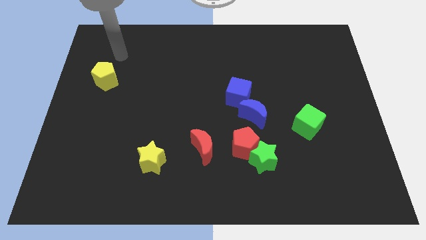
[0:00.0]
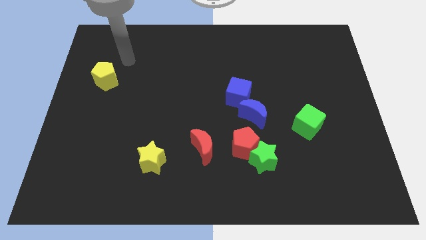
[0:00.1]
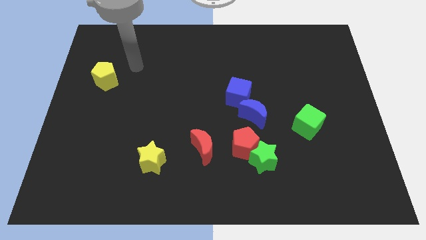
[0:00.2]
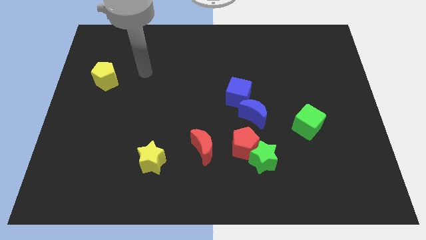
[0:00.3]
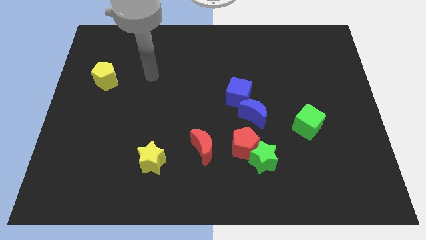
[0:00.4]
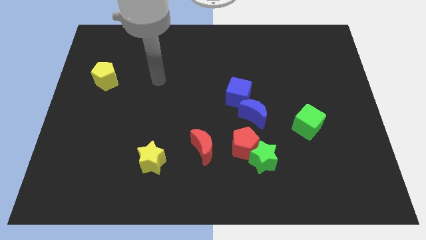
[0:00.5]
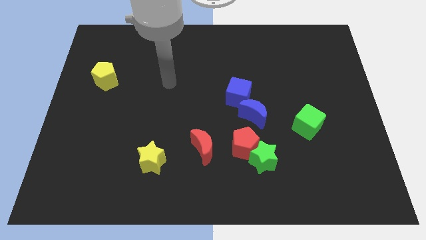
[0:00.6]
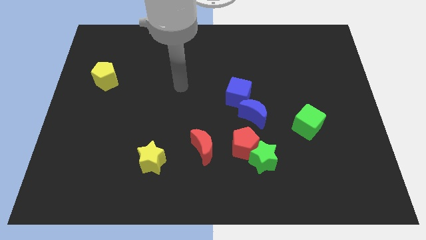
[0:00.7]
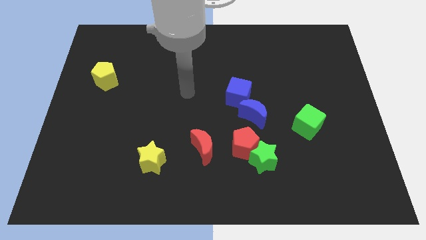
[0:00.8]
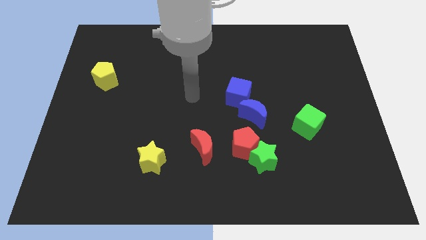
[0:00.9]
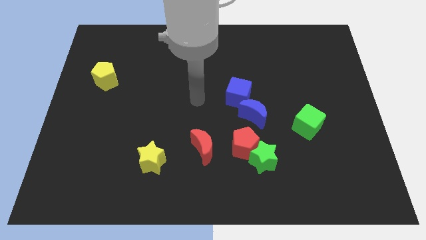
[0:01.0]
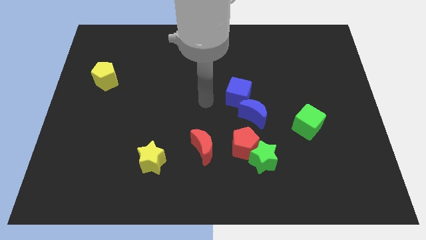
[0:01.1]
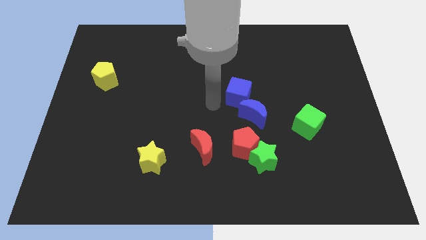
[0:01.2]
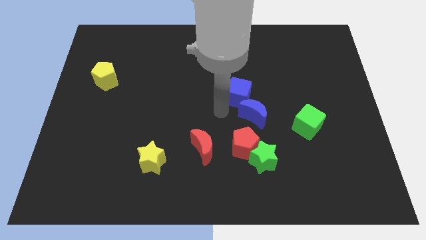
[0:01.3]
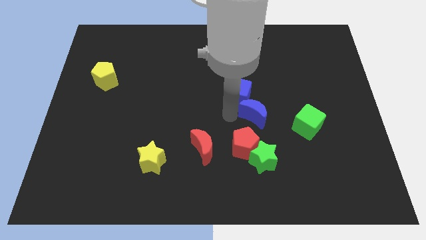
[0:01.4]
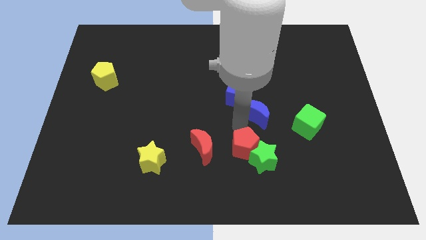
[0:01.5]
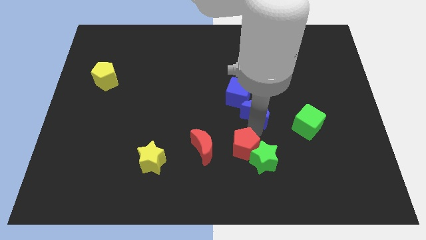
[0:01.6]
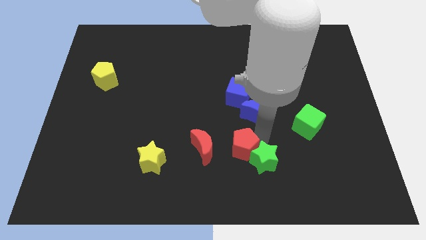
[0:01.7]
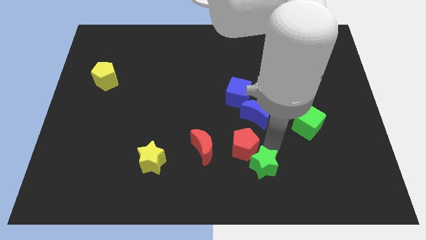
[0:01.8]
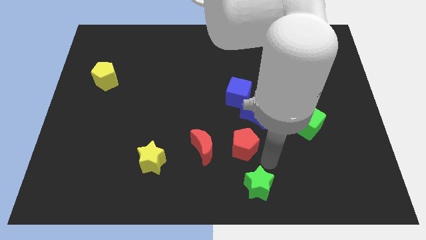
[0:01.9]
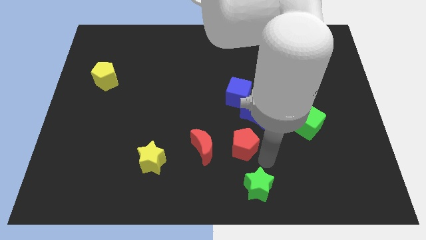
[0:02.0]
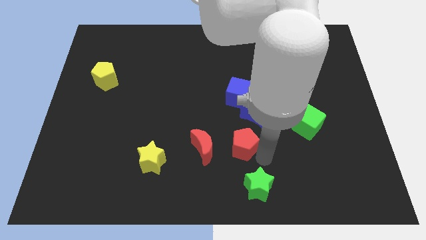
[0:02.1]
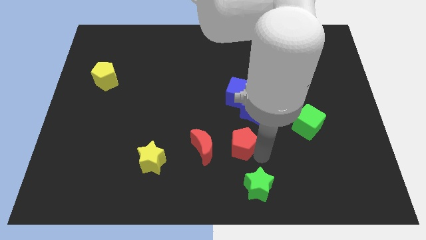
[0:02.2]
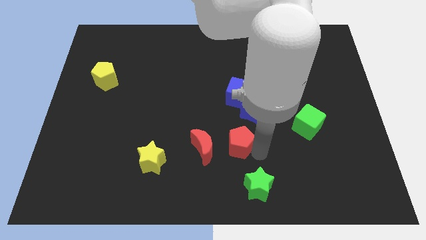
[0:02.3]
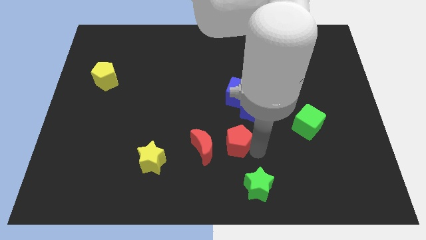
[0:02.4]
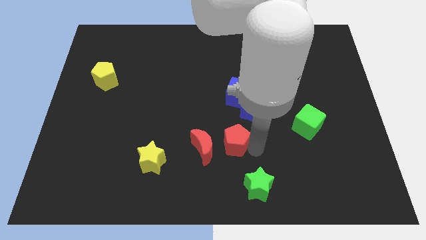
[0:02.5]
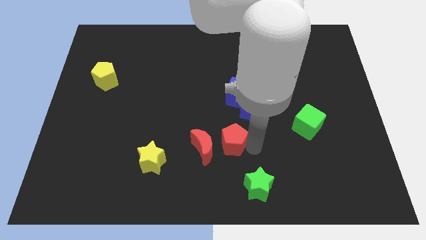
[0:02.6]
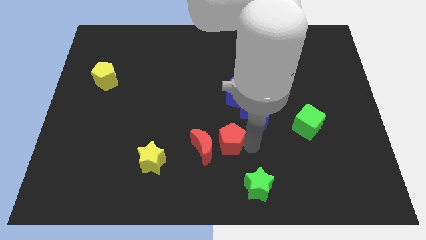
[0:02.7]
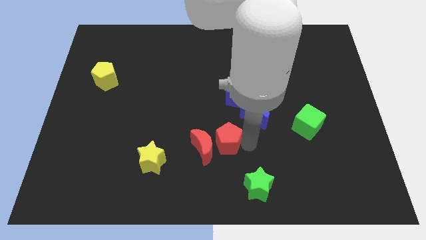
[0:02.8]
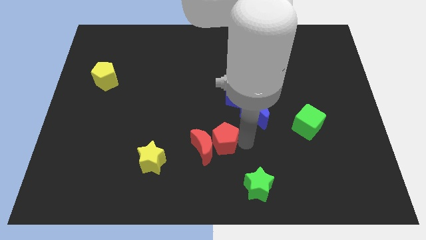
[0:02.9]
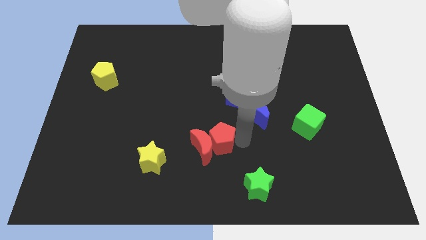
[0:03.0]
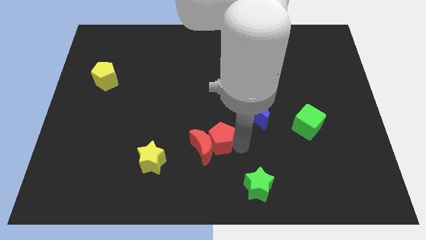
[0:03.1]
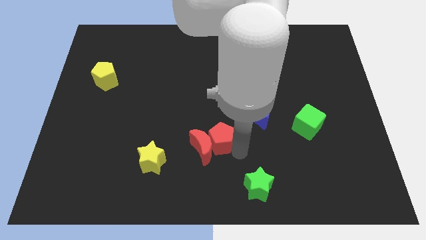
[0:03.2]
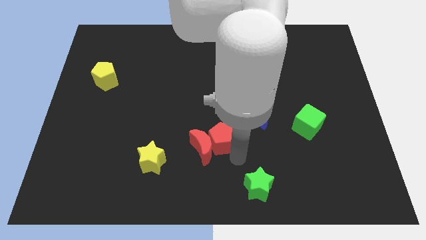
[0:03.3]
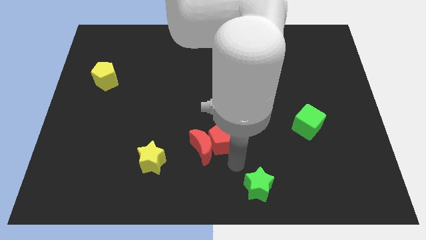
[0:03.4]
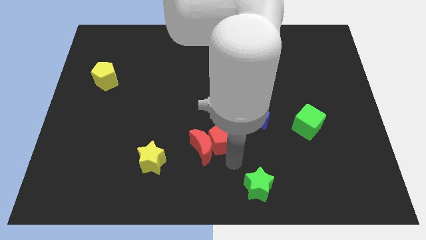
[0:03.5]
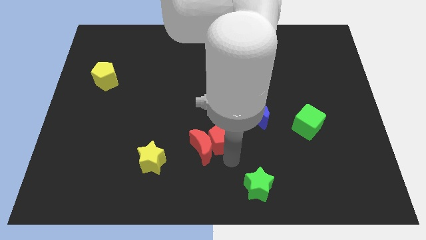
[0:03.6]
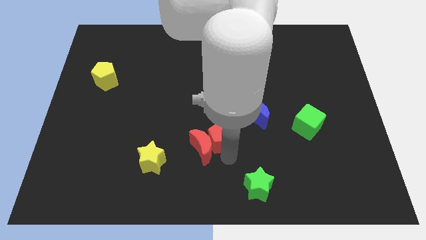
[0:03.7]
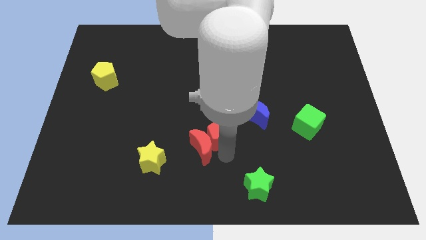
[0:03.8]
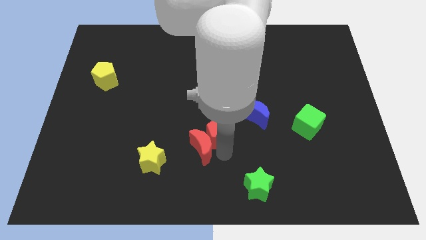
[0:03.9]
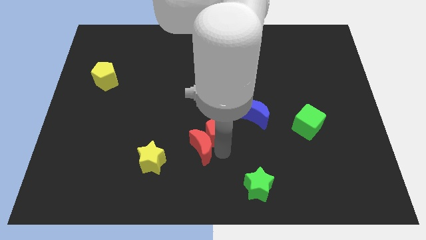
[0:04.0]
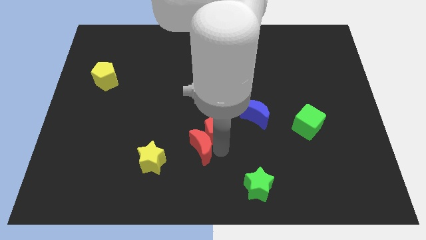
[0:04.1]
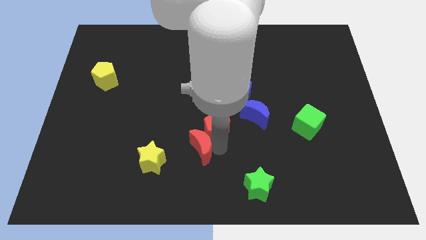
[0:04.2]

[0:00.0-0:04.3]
slide the red pentagon a little diagonally up and left

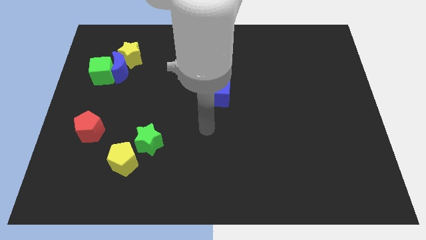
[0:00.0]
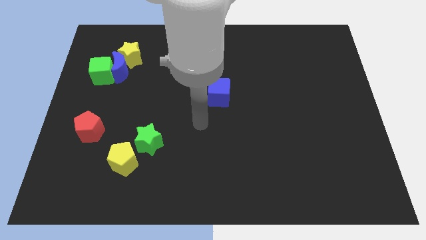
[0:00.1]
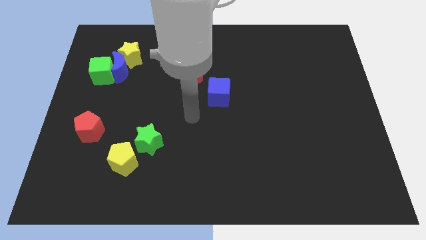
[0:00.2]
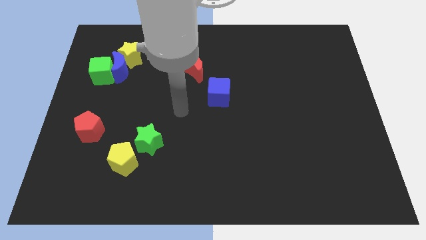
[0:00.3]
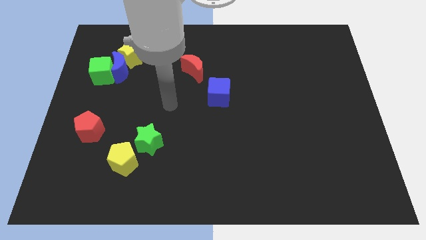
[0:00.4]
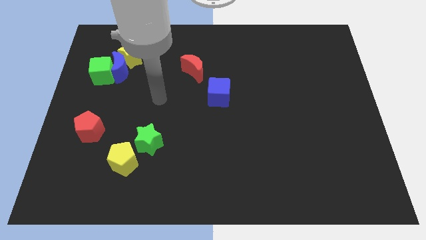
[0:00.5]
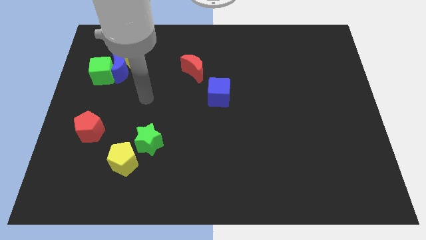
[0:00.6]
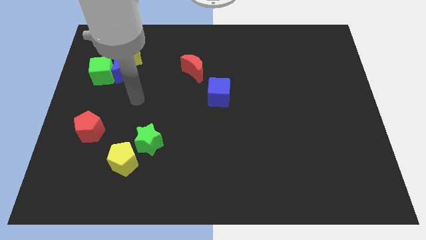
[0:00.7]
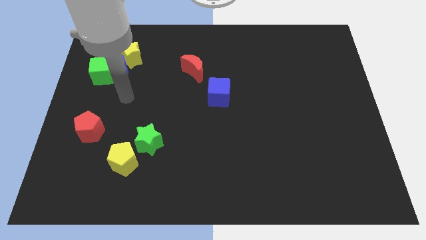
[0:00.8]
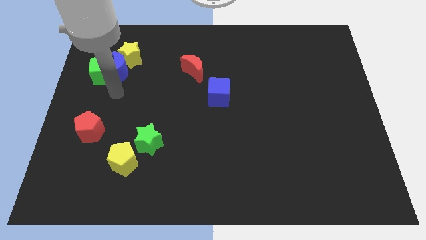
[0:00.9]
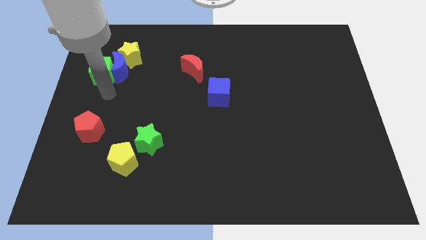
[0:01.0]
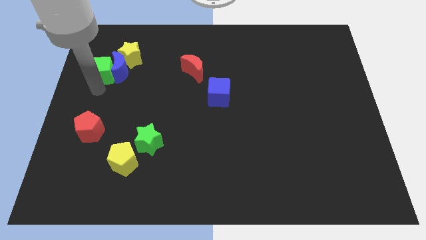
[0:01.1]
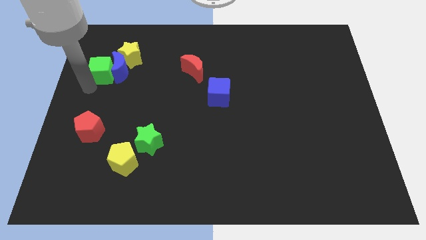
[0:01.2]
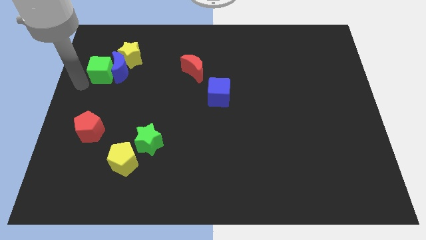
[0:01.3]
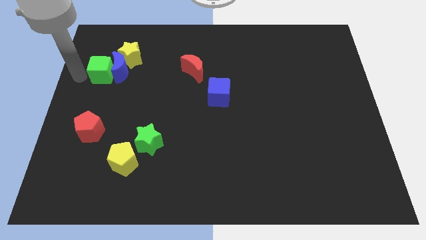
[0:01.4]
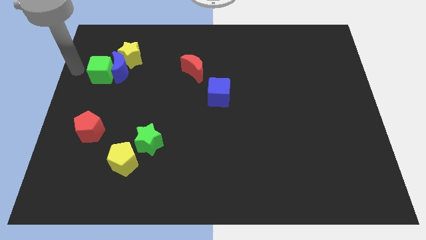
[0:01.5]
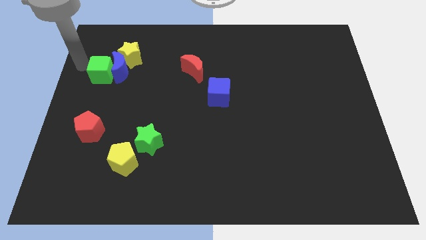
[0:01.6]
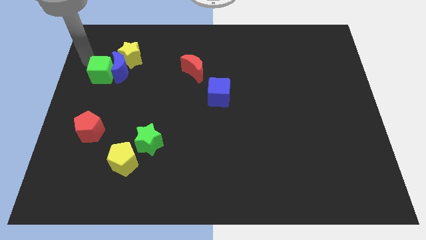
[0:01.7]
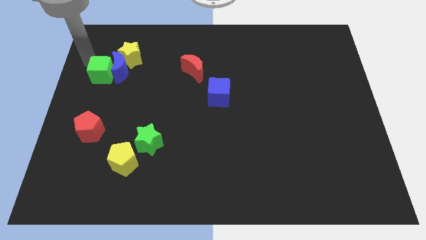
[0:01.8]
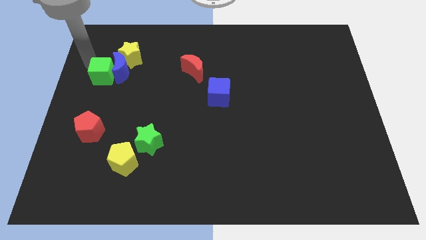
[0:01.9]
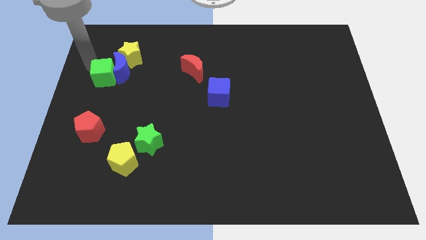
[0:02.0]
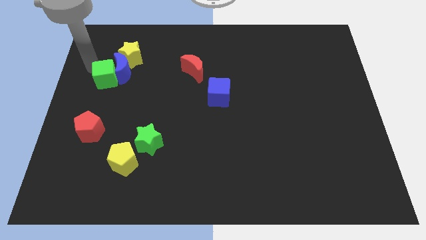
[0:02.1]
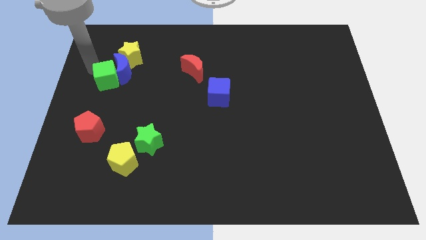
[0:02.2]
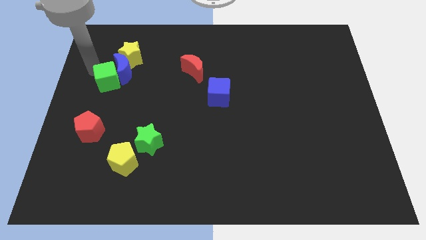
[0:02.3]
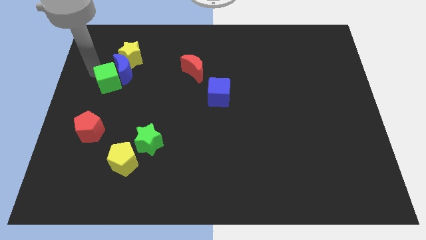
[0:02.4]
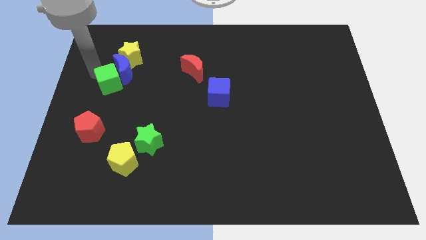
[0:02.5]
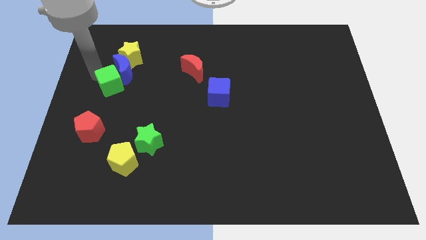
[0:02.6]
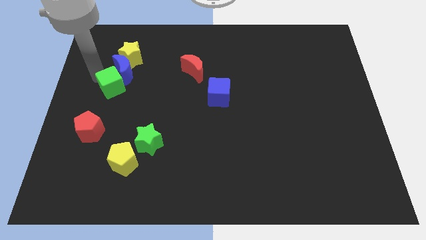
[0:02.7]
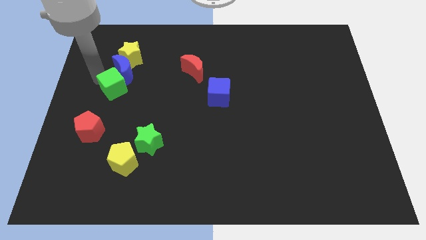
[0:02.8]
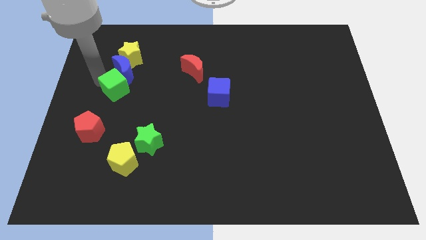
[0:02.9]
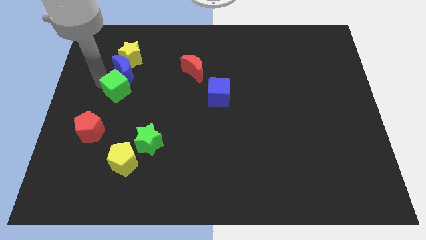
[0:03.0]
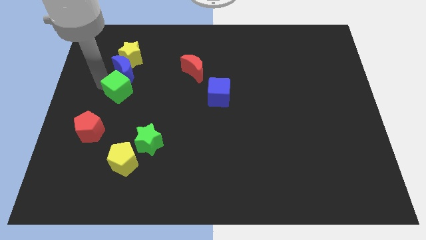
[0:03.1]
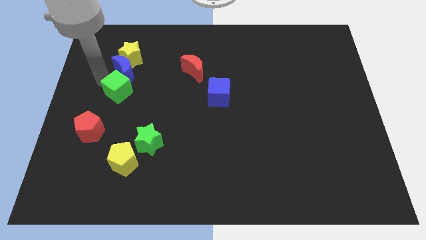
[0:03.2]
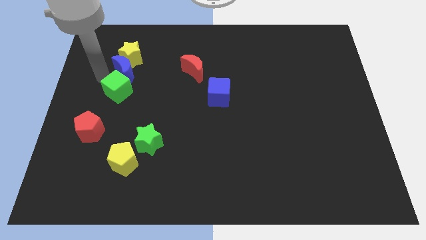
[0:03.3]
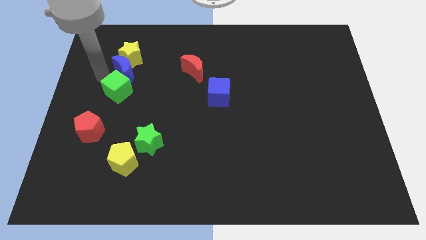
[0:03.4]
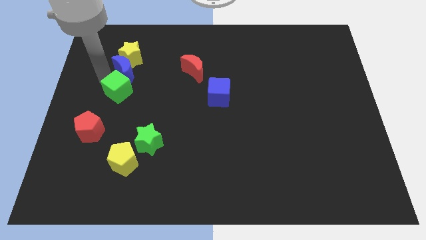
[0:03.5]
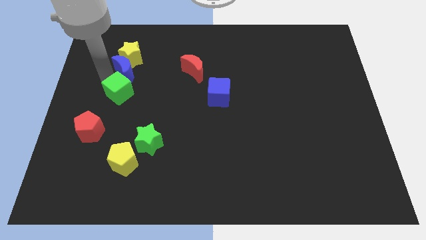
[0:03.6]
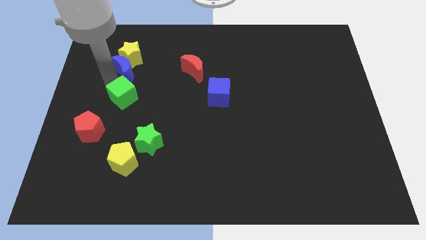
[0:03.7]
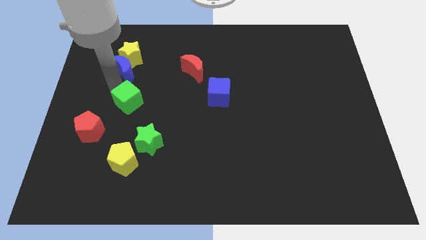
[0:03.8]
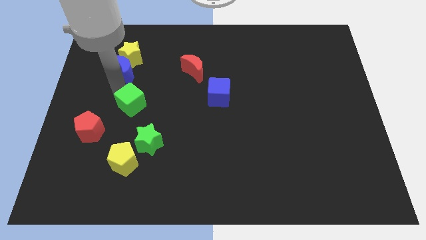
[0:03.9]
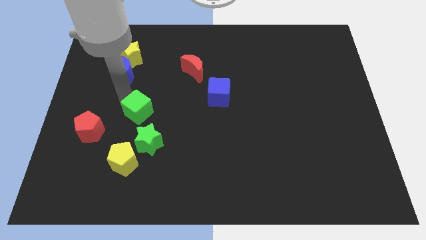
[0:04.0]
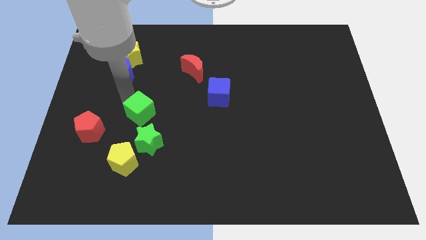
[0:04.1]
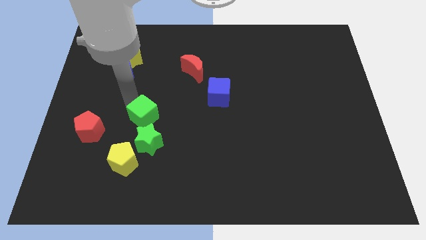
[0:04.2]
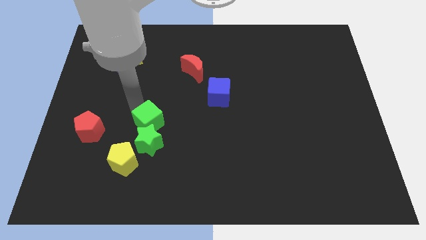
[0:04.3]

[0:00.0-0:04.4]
push the green cube downwards and then to the right
